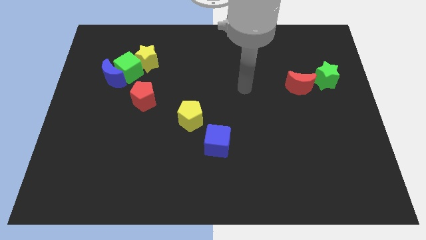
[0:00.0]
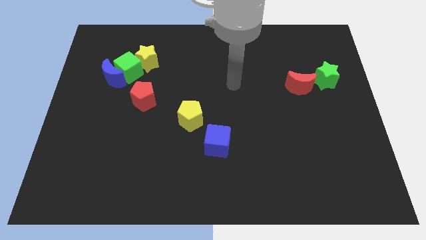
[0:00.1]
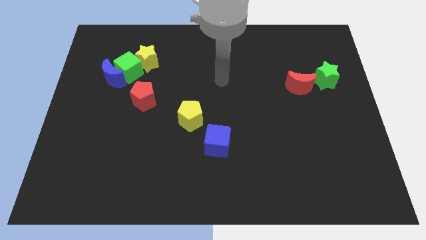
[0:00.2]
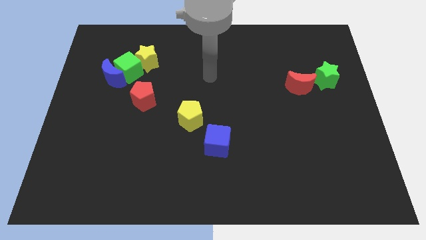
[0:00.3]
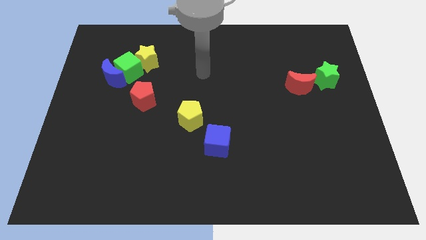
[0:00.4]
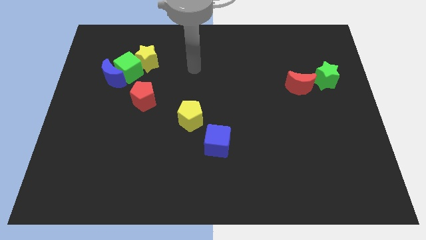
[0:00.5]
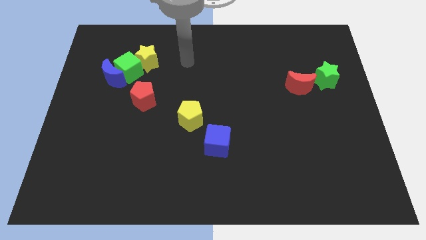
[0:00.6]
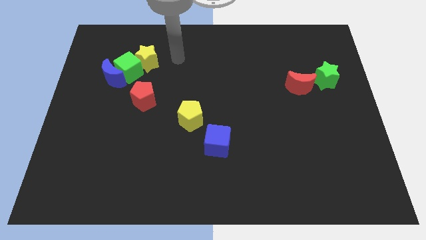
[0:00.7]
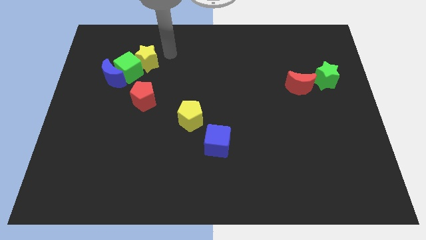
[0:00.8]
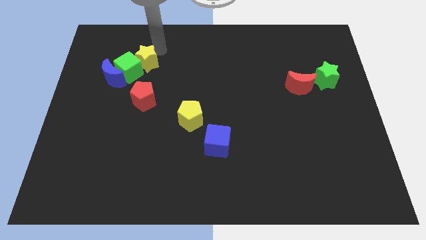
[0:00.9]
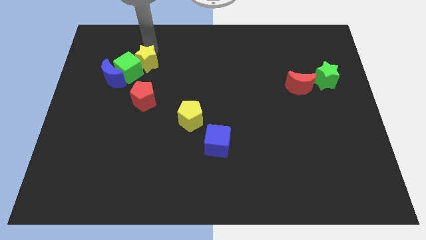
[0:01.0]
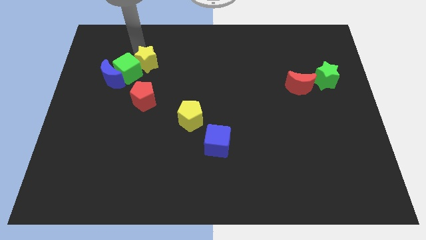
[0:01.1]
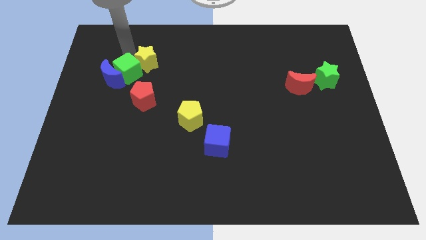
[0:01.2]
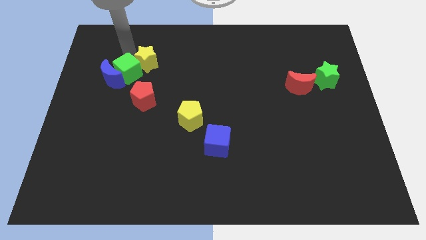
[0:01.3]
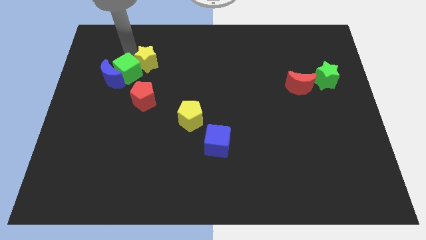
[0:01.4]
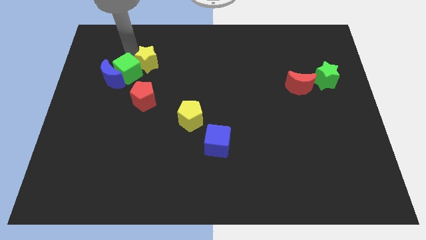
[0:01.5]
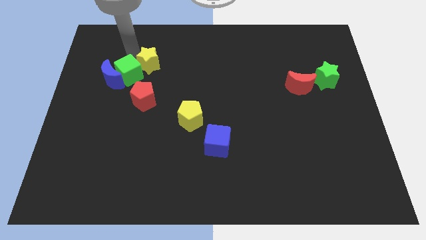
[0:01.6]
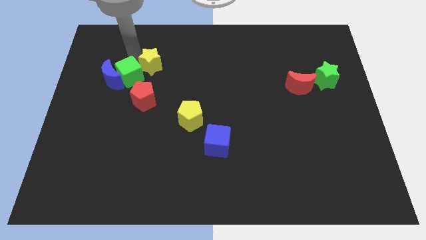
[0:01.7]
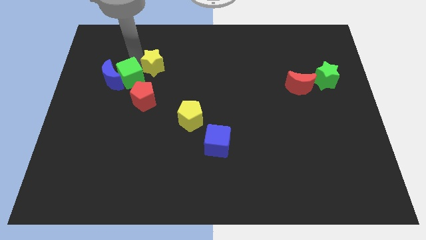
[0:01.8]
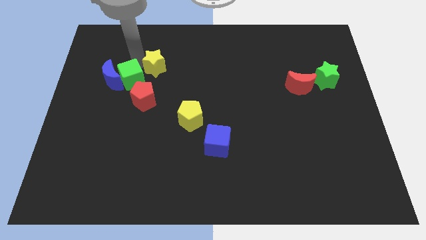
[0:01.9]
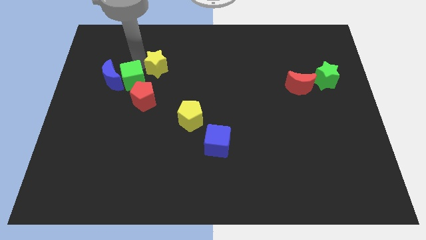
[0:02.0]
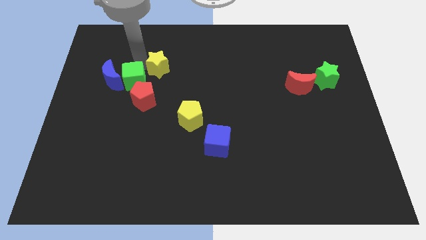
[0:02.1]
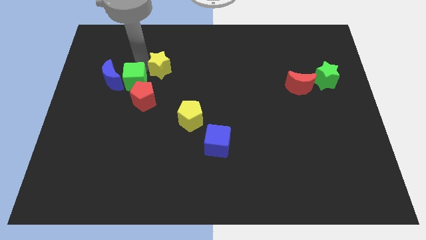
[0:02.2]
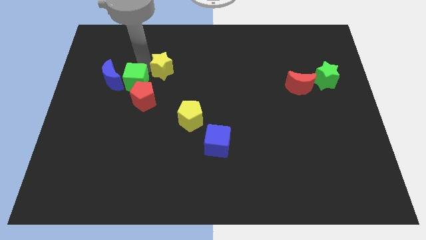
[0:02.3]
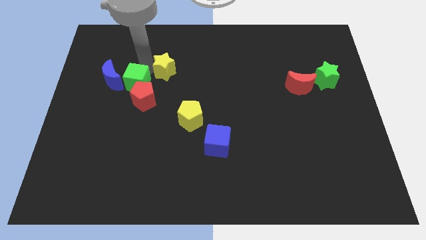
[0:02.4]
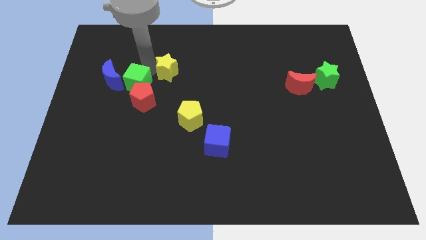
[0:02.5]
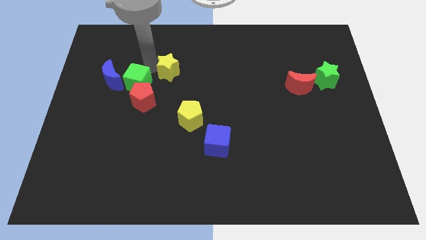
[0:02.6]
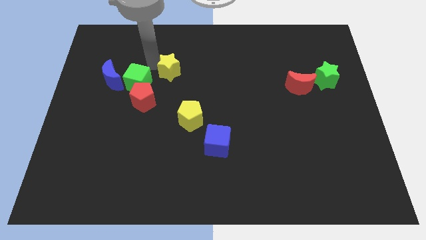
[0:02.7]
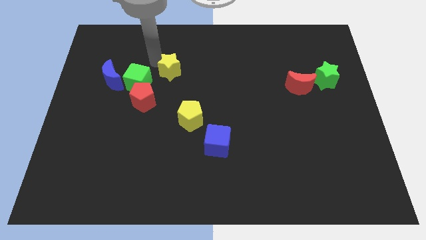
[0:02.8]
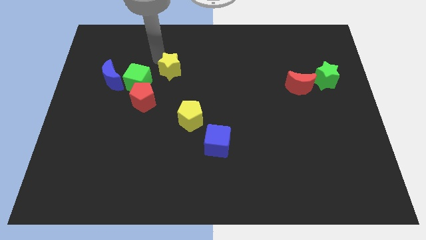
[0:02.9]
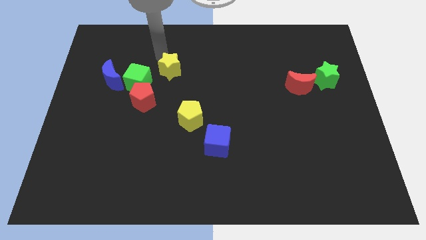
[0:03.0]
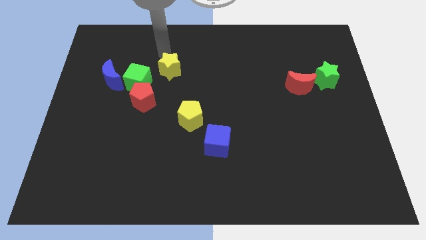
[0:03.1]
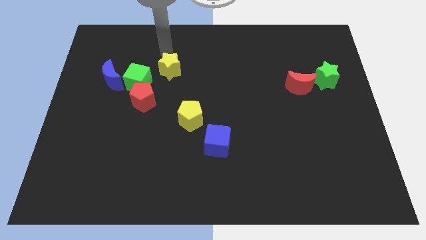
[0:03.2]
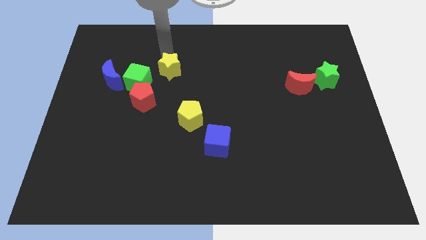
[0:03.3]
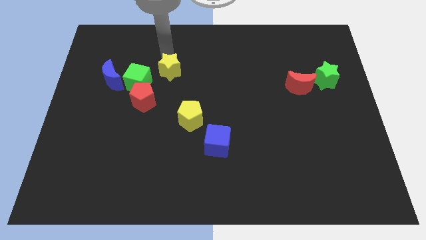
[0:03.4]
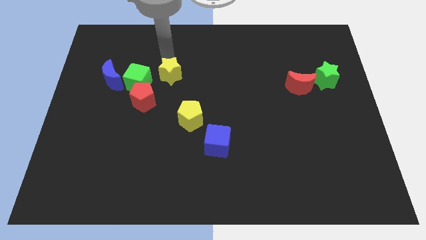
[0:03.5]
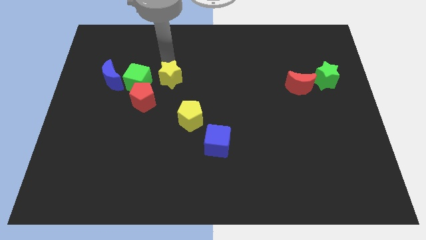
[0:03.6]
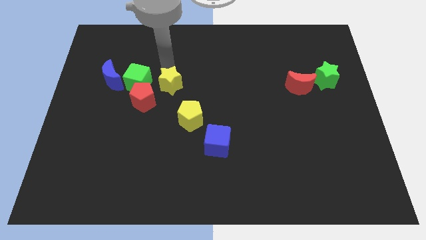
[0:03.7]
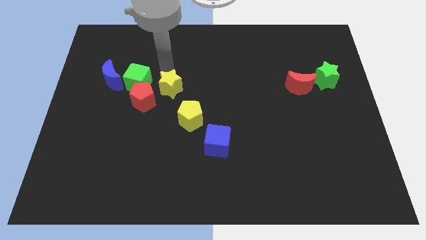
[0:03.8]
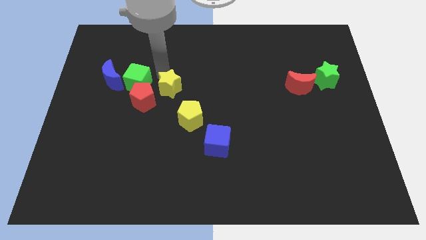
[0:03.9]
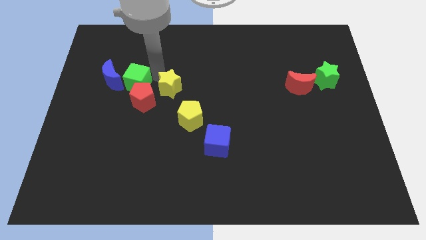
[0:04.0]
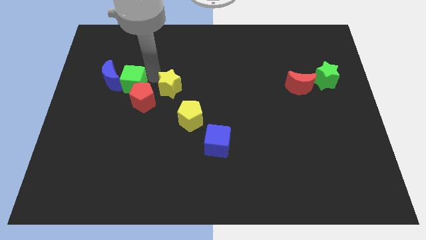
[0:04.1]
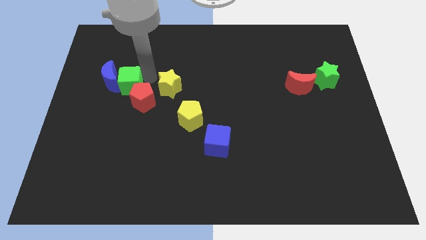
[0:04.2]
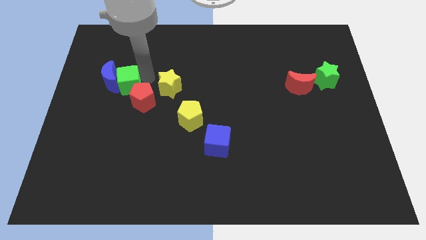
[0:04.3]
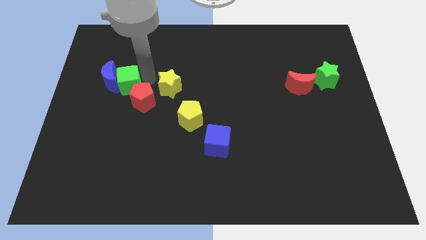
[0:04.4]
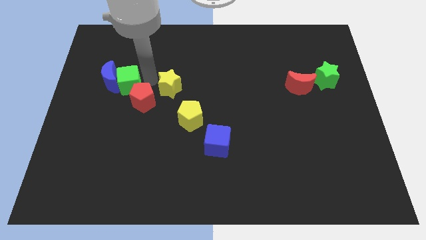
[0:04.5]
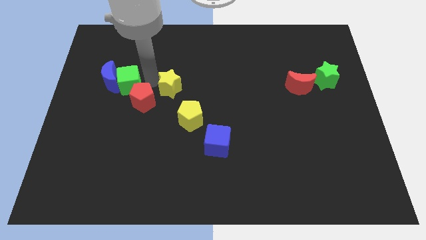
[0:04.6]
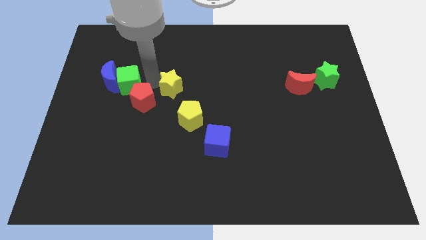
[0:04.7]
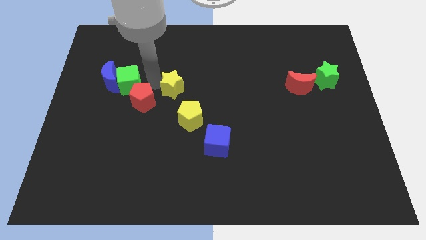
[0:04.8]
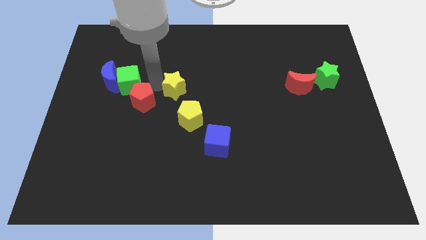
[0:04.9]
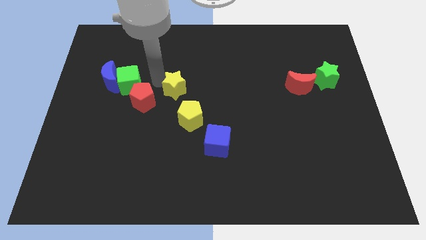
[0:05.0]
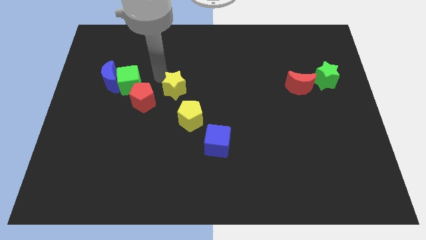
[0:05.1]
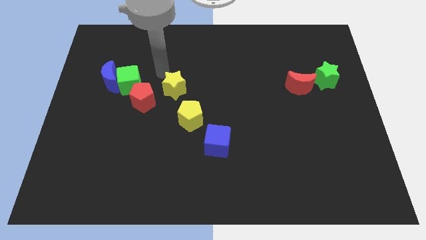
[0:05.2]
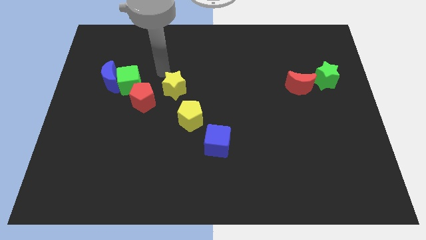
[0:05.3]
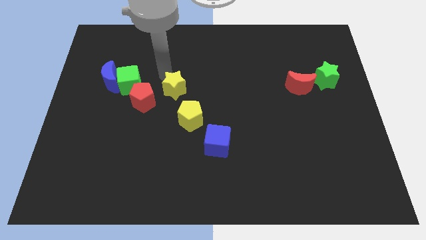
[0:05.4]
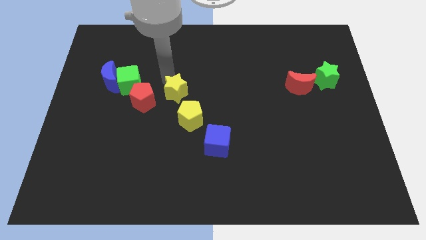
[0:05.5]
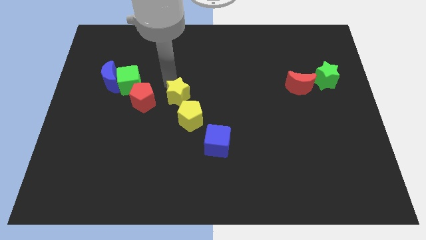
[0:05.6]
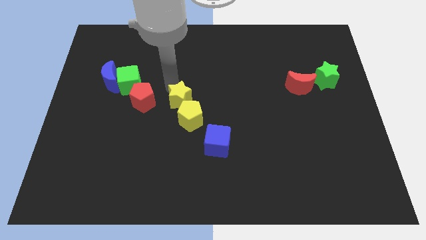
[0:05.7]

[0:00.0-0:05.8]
move the yellow star close to the yellow pentagon

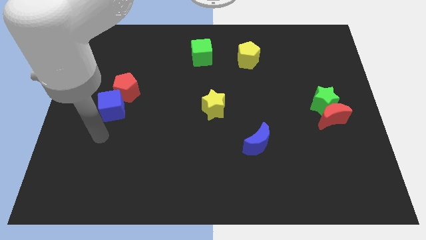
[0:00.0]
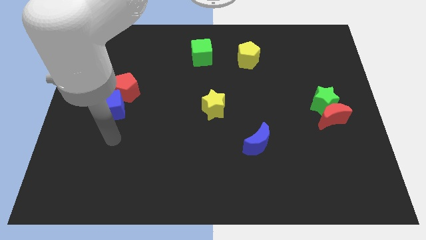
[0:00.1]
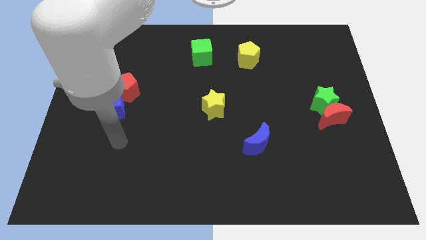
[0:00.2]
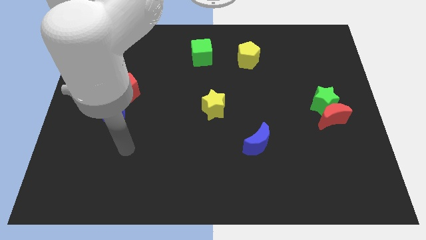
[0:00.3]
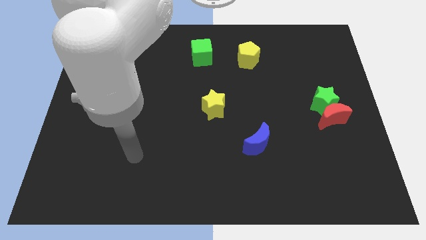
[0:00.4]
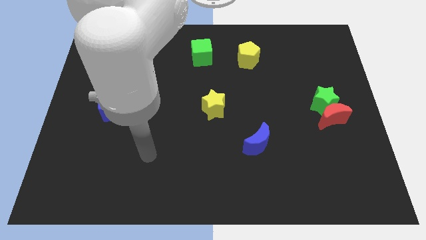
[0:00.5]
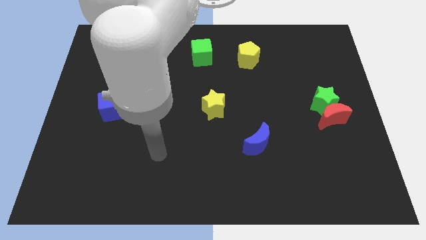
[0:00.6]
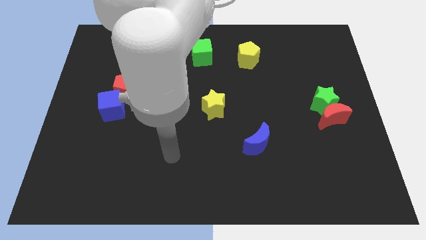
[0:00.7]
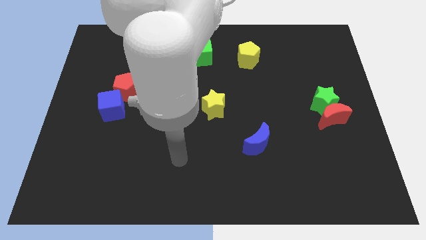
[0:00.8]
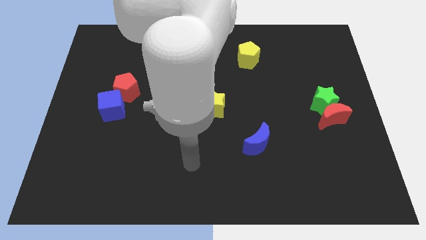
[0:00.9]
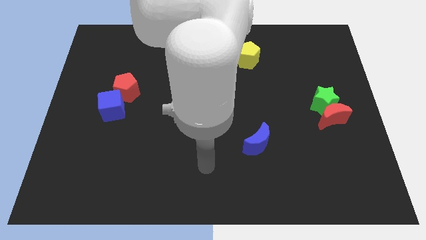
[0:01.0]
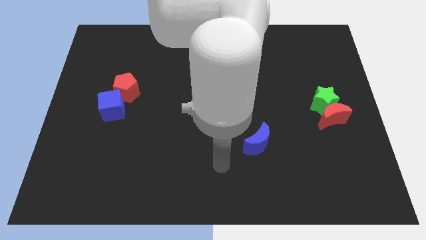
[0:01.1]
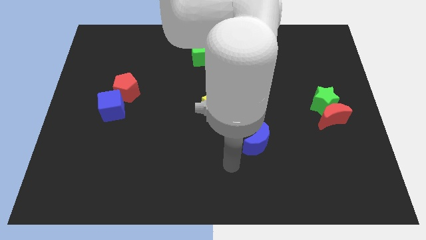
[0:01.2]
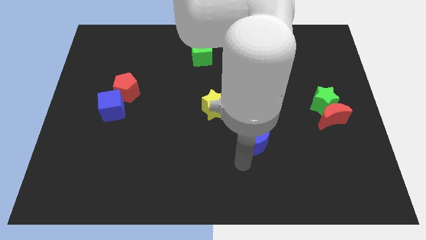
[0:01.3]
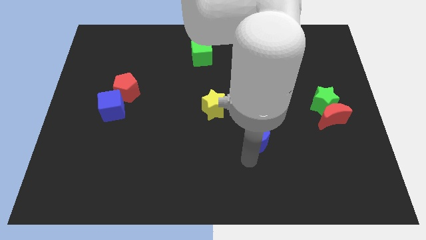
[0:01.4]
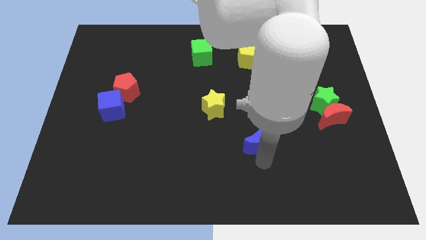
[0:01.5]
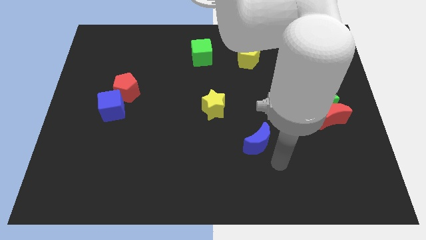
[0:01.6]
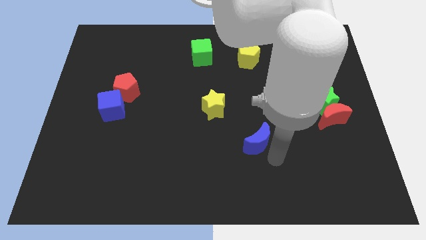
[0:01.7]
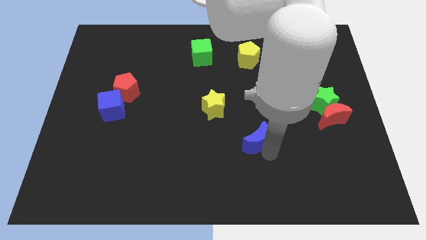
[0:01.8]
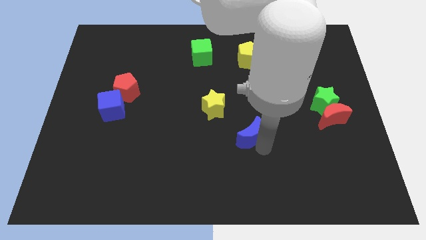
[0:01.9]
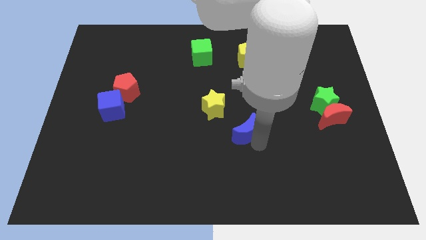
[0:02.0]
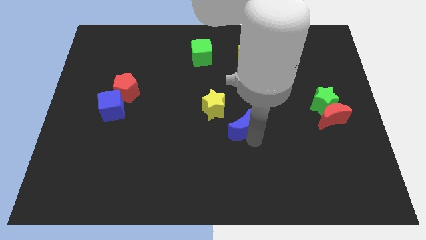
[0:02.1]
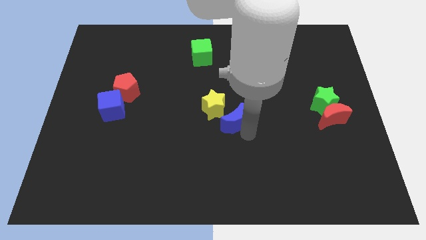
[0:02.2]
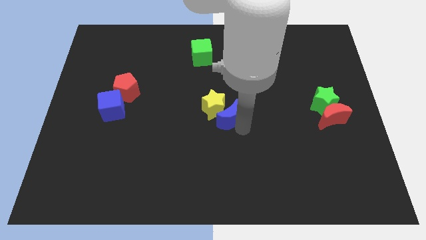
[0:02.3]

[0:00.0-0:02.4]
slide the blue moon next to the yellow star

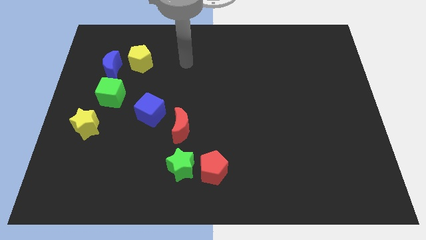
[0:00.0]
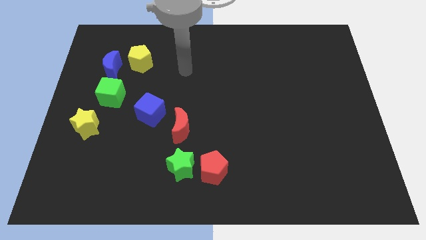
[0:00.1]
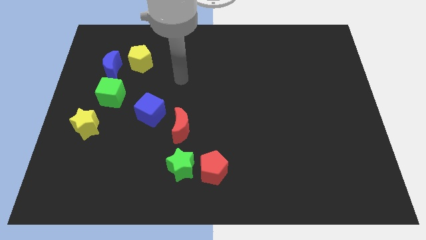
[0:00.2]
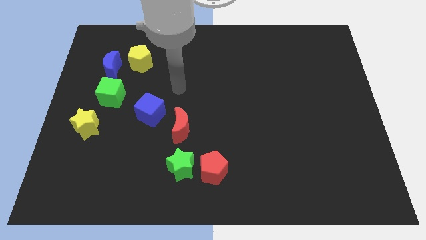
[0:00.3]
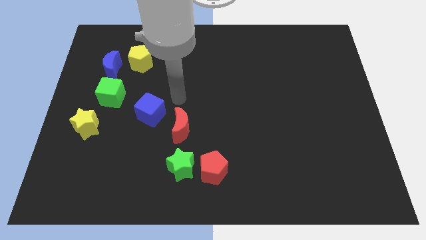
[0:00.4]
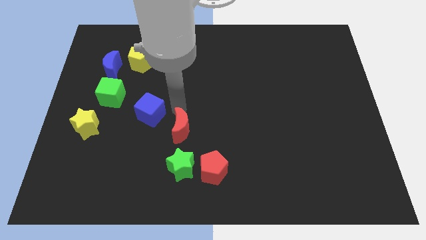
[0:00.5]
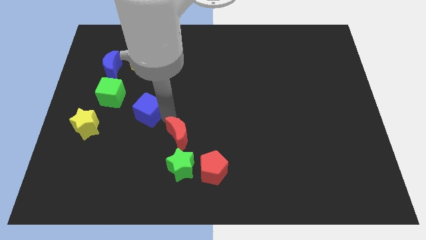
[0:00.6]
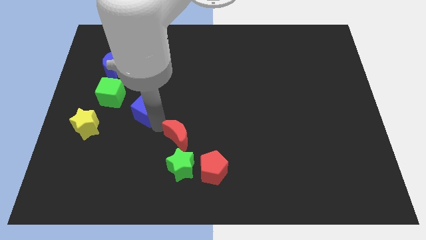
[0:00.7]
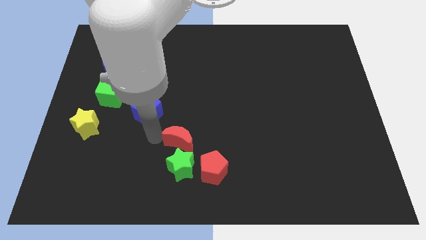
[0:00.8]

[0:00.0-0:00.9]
push the green star to the red moon
